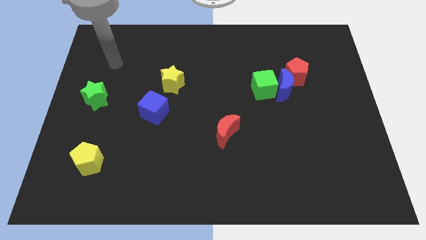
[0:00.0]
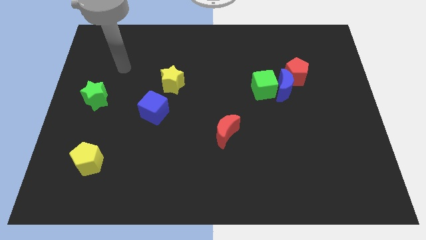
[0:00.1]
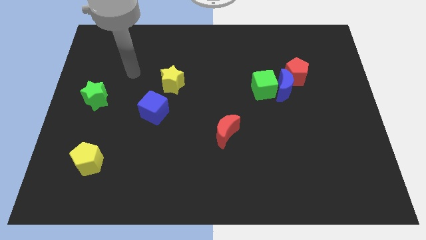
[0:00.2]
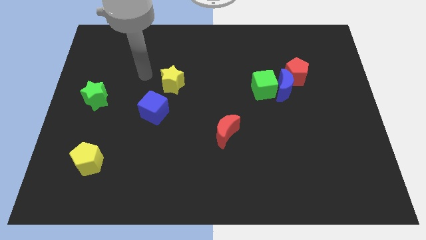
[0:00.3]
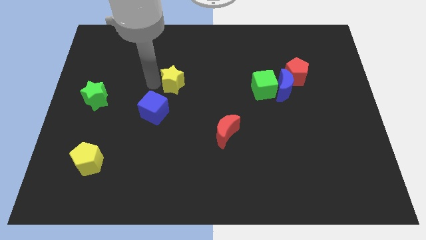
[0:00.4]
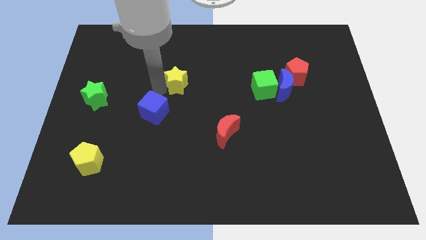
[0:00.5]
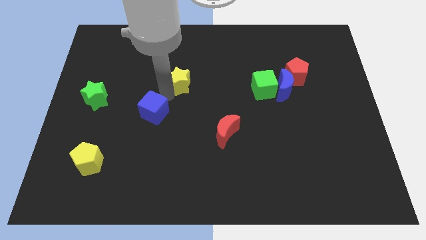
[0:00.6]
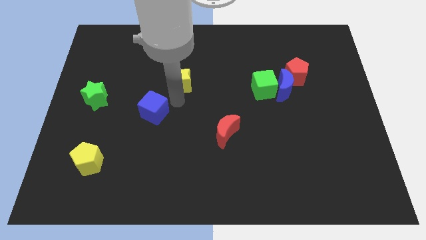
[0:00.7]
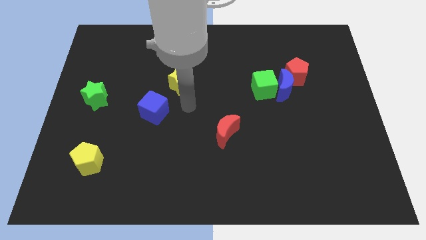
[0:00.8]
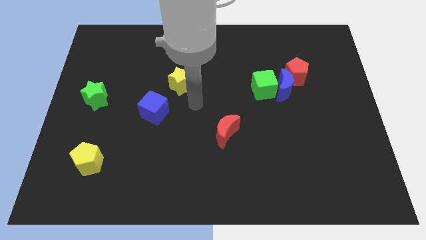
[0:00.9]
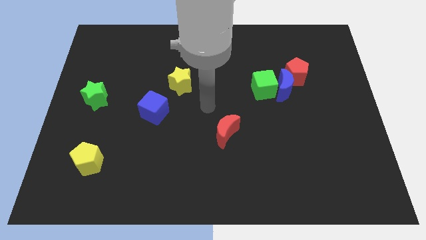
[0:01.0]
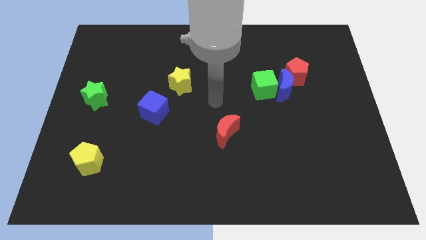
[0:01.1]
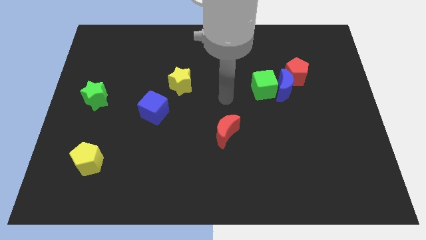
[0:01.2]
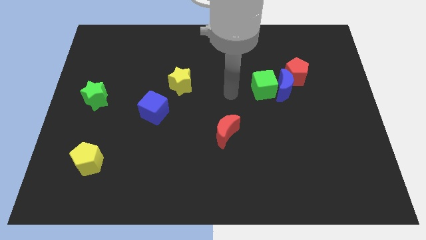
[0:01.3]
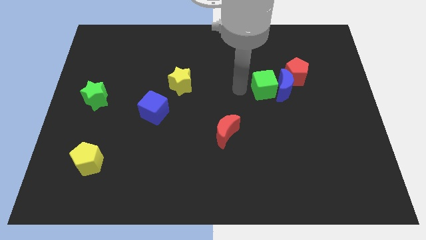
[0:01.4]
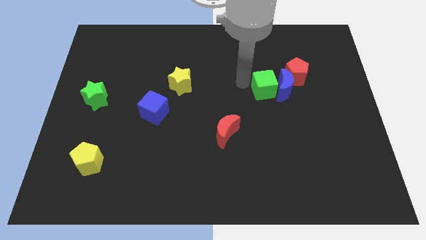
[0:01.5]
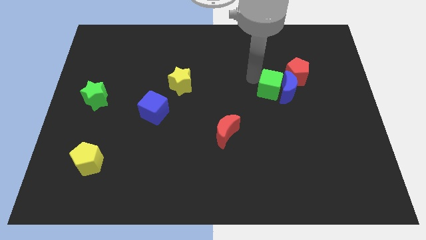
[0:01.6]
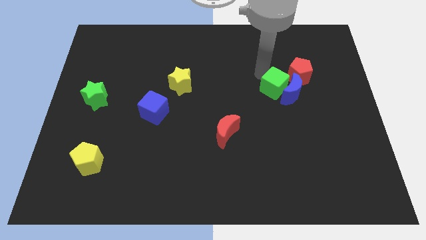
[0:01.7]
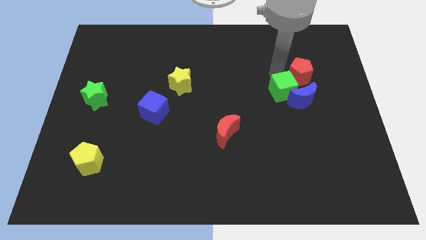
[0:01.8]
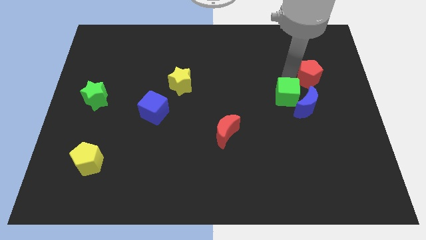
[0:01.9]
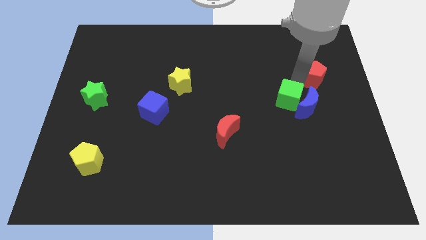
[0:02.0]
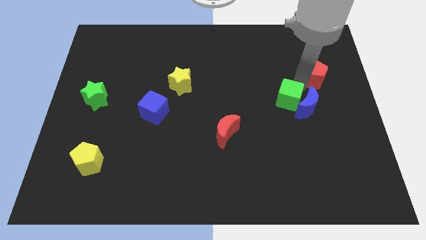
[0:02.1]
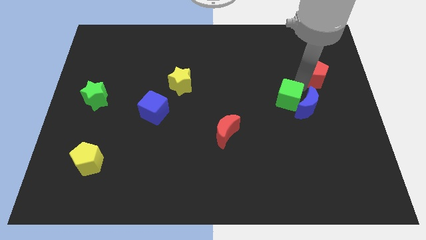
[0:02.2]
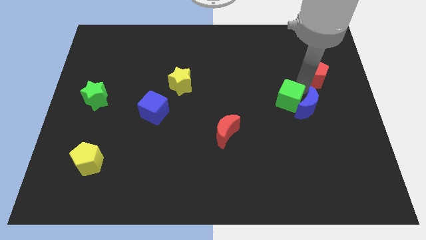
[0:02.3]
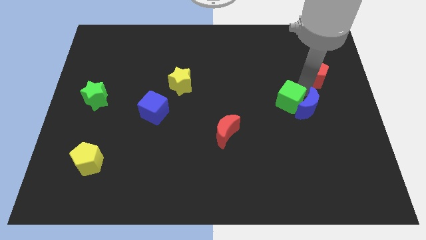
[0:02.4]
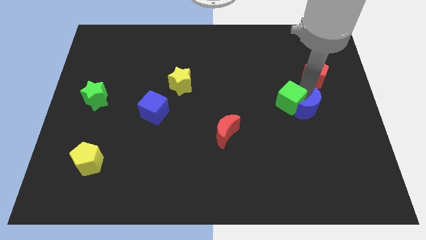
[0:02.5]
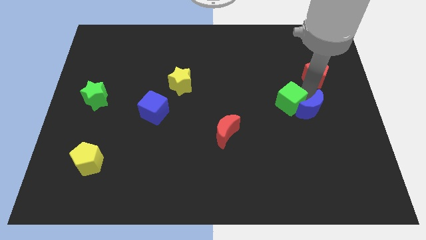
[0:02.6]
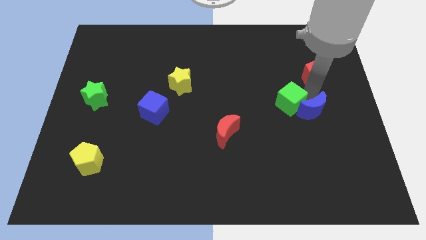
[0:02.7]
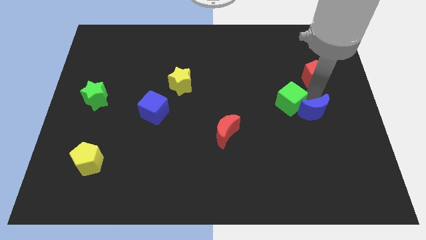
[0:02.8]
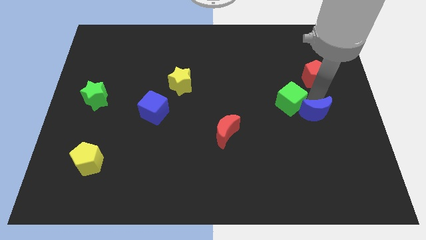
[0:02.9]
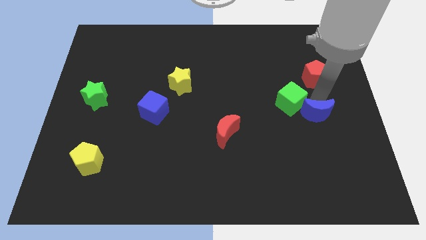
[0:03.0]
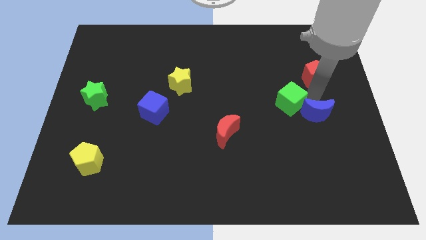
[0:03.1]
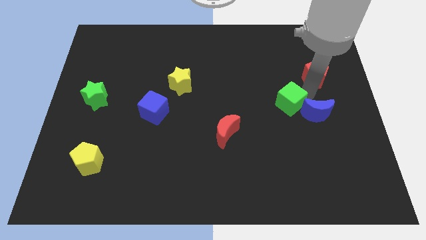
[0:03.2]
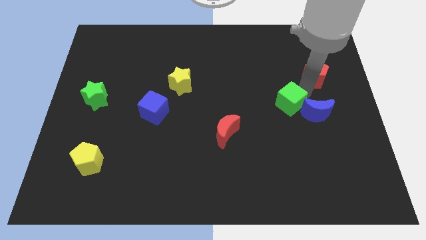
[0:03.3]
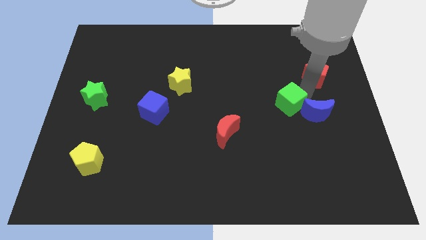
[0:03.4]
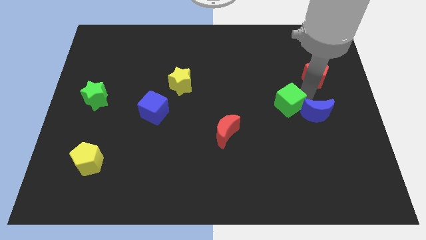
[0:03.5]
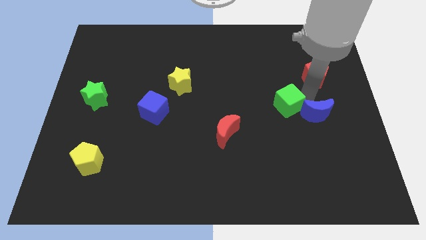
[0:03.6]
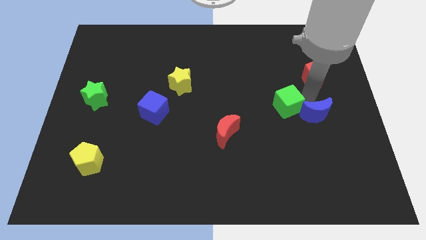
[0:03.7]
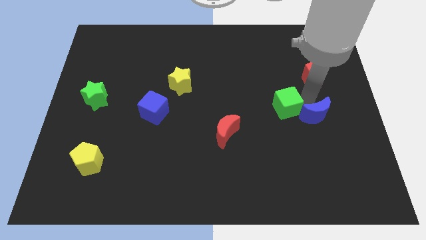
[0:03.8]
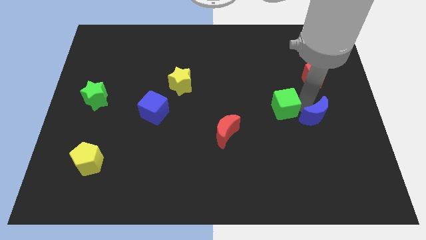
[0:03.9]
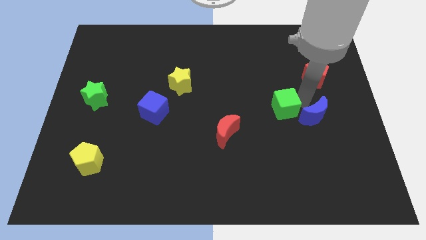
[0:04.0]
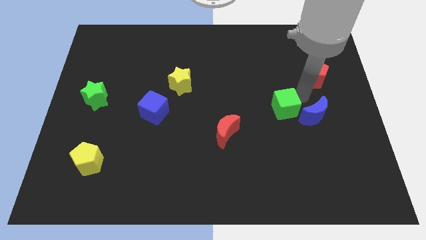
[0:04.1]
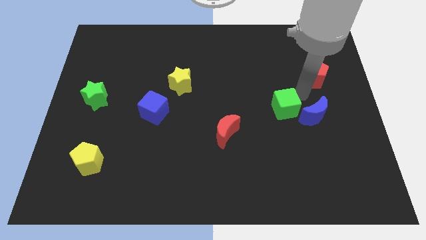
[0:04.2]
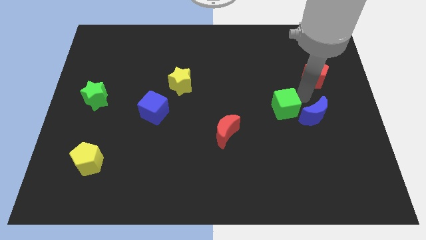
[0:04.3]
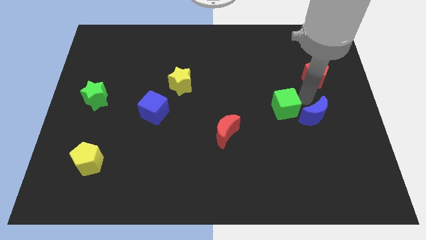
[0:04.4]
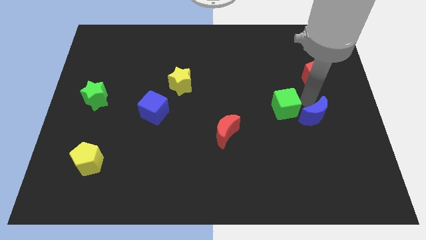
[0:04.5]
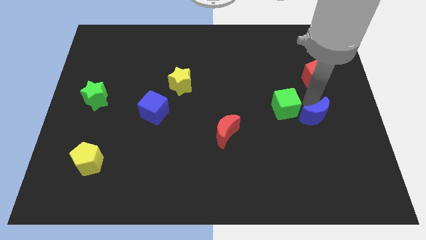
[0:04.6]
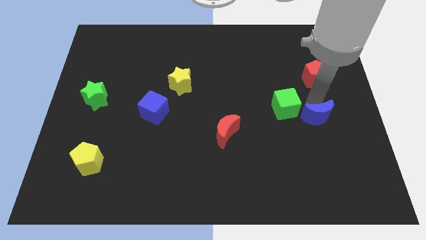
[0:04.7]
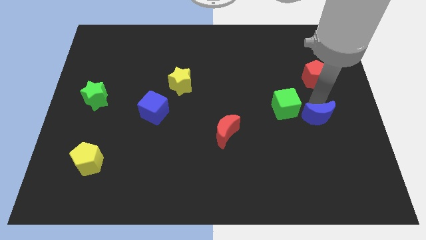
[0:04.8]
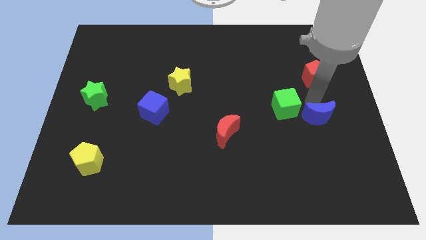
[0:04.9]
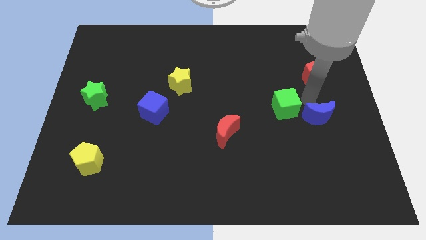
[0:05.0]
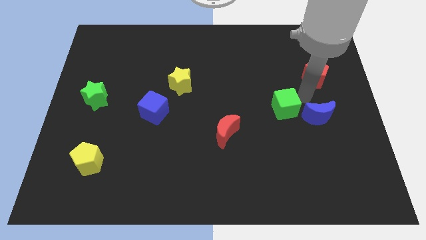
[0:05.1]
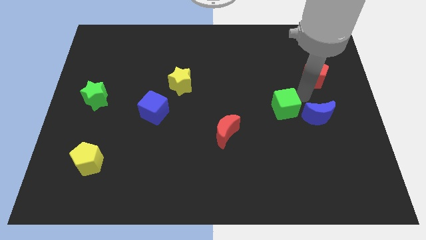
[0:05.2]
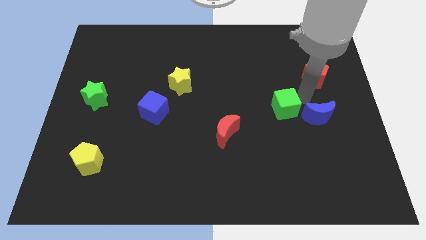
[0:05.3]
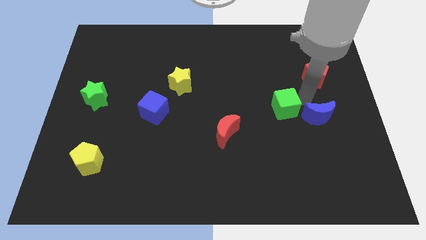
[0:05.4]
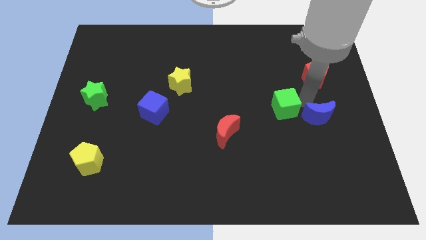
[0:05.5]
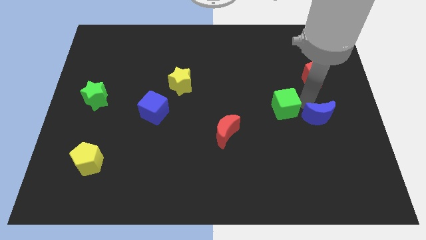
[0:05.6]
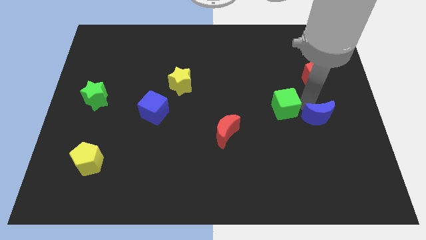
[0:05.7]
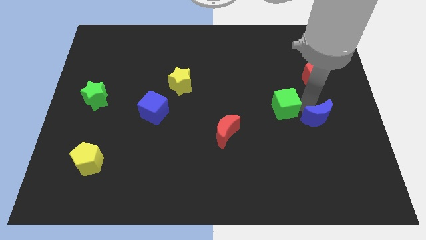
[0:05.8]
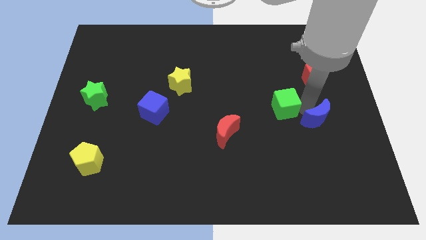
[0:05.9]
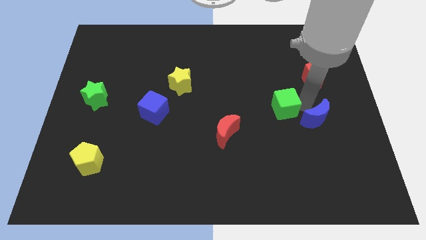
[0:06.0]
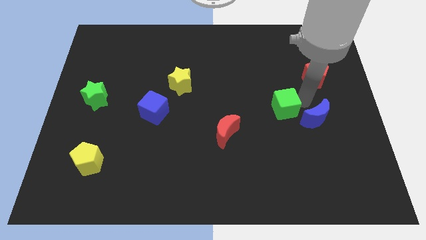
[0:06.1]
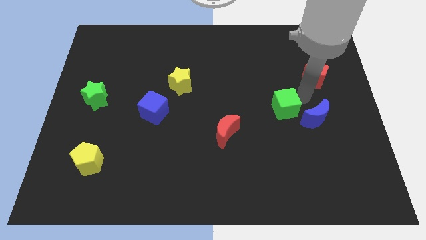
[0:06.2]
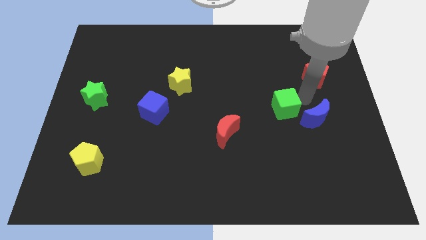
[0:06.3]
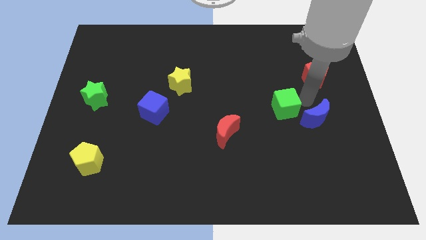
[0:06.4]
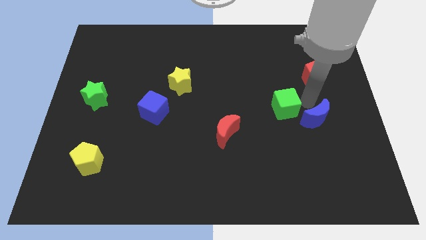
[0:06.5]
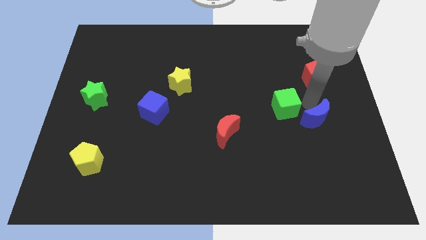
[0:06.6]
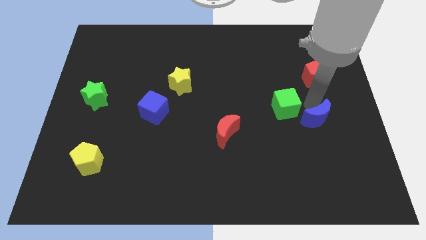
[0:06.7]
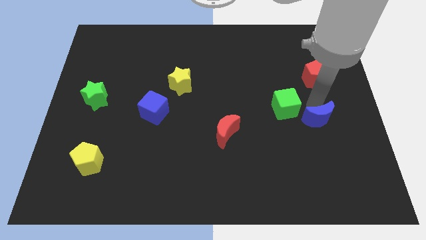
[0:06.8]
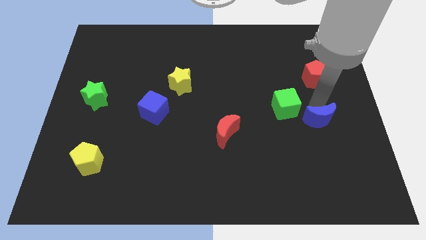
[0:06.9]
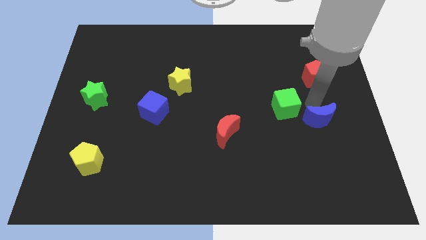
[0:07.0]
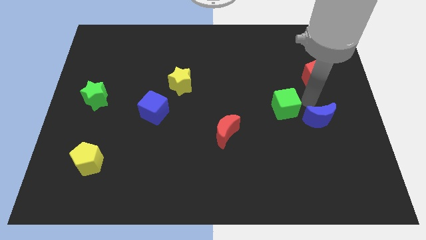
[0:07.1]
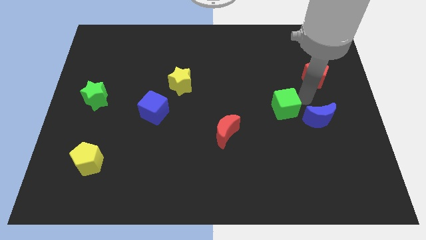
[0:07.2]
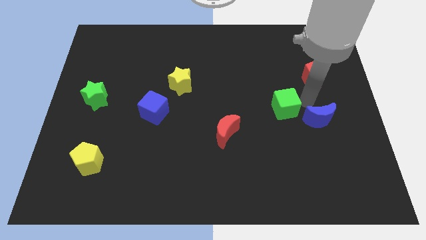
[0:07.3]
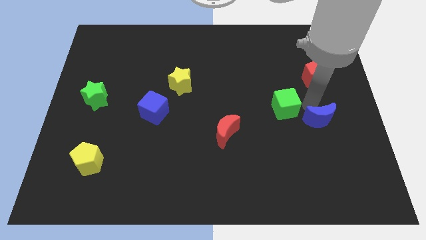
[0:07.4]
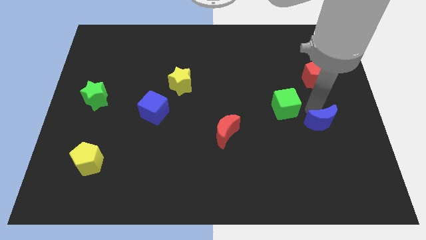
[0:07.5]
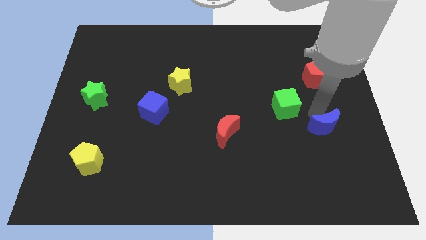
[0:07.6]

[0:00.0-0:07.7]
pull the blue moon apart from the green cube and red pentagon

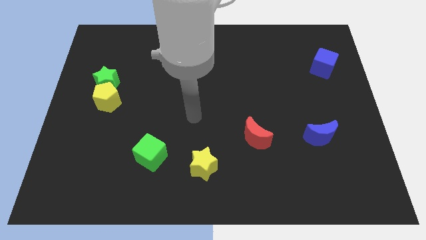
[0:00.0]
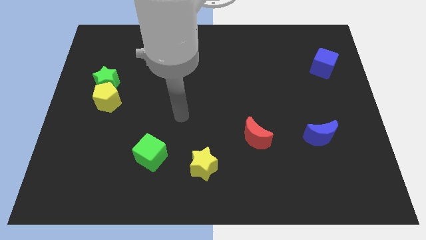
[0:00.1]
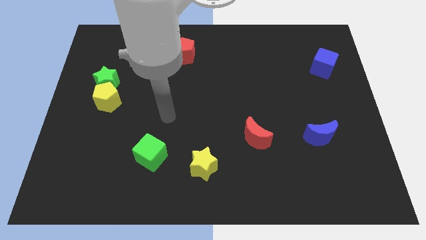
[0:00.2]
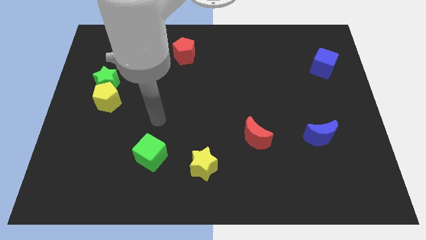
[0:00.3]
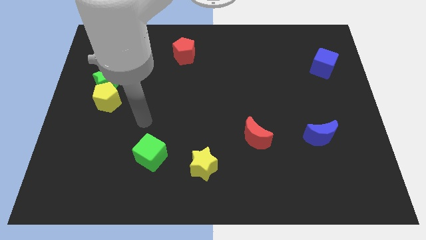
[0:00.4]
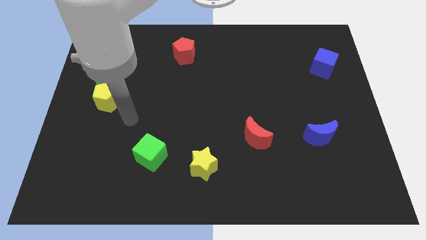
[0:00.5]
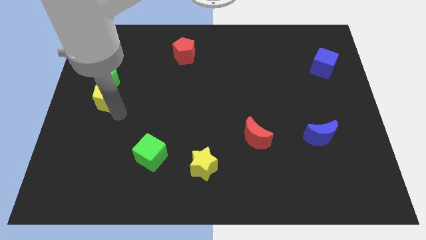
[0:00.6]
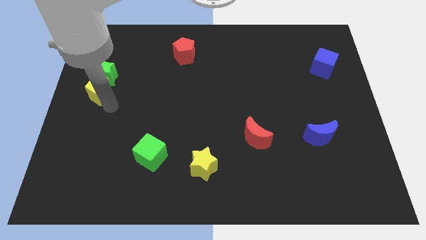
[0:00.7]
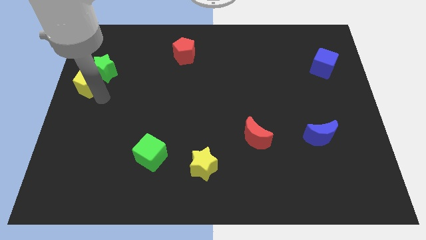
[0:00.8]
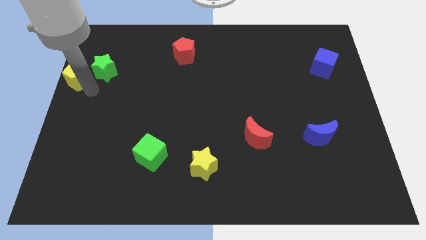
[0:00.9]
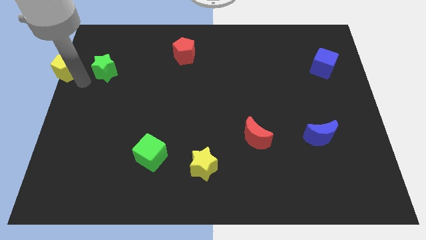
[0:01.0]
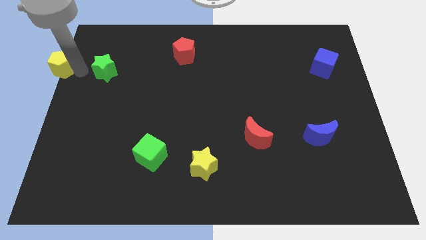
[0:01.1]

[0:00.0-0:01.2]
separate the green star from the yellow pentagon

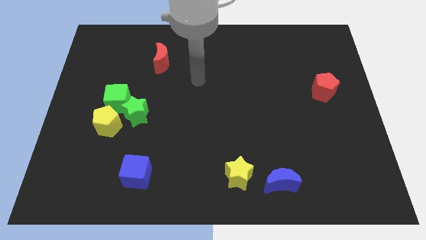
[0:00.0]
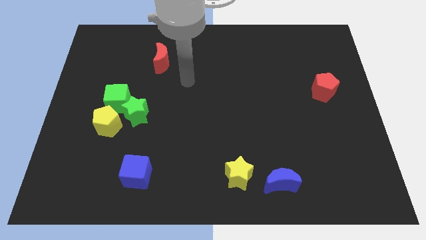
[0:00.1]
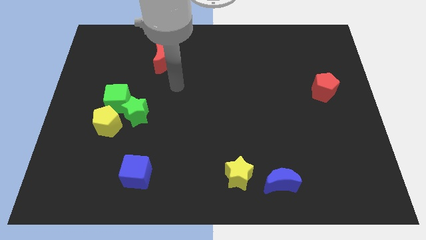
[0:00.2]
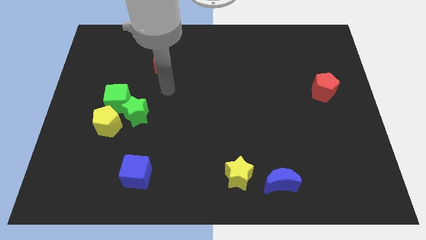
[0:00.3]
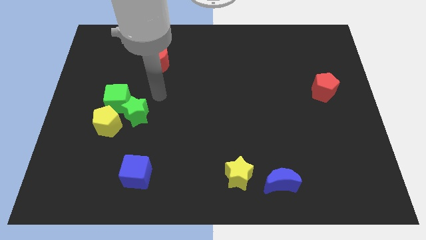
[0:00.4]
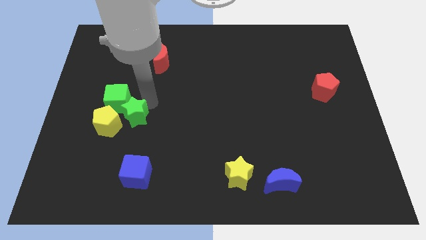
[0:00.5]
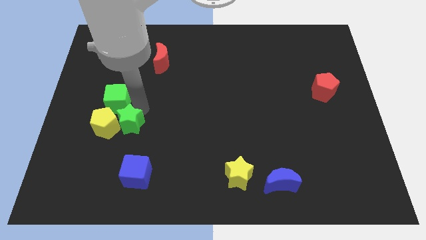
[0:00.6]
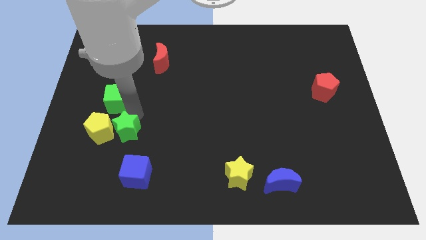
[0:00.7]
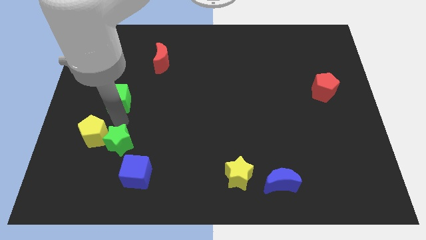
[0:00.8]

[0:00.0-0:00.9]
move the green cube away from the green star and yellow pentagon
